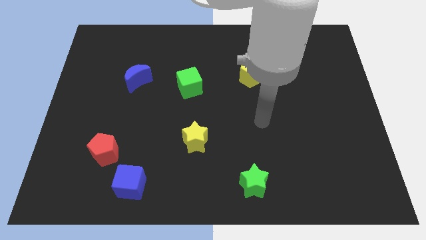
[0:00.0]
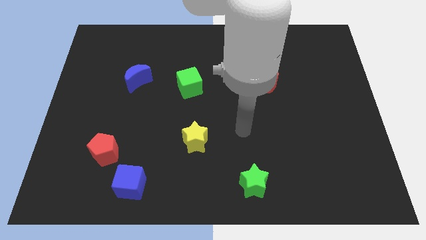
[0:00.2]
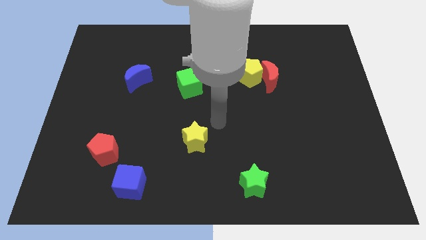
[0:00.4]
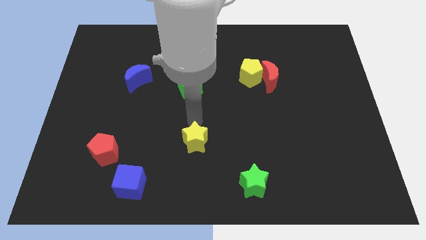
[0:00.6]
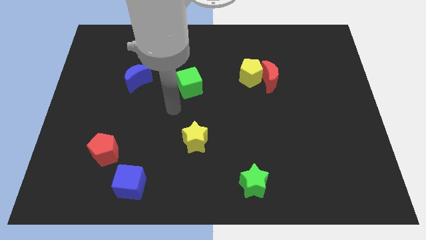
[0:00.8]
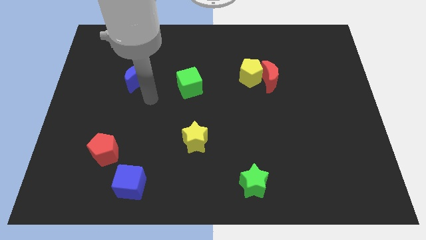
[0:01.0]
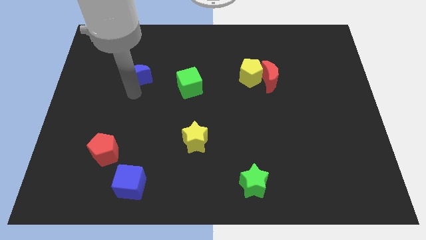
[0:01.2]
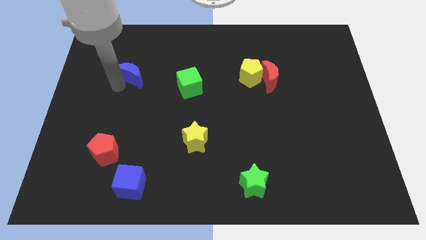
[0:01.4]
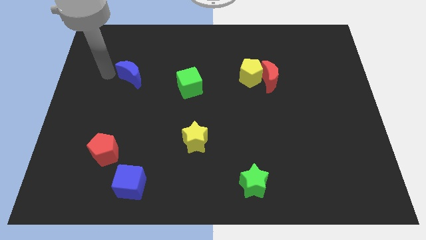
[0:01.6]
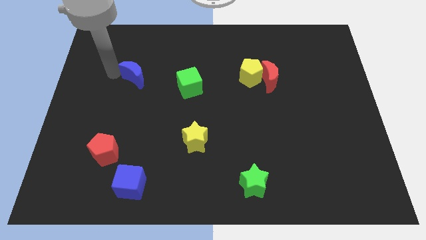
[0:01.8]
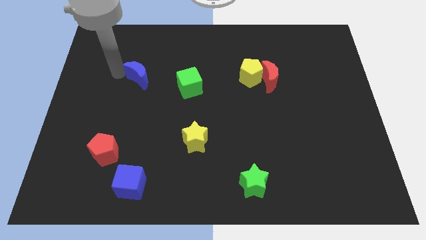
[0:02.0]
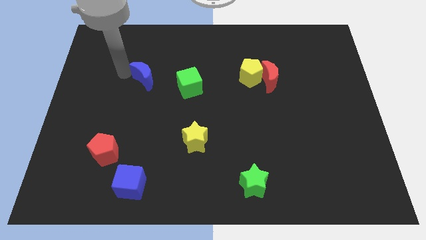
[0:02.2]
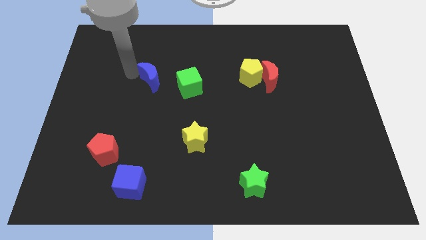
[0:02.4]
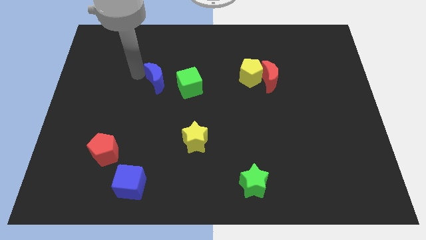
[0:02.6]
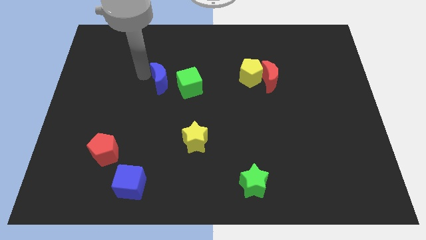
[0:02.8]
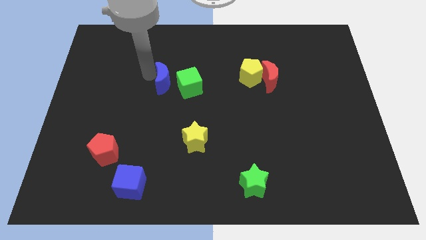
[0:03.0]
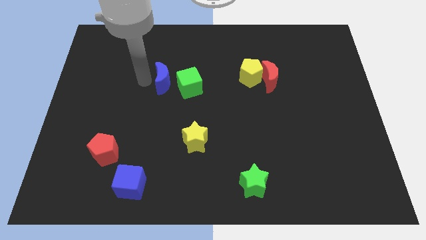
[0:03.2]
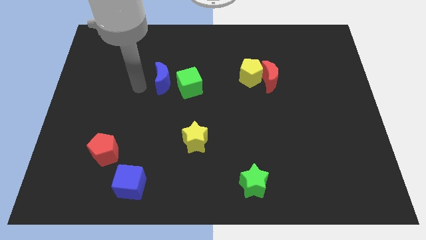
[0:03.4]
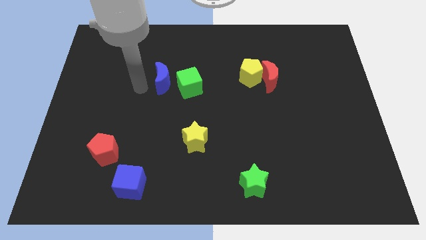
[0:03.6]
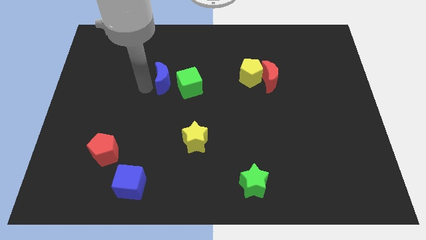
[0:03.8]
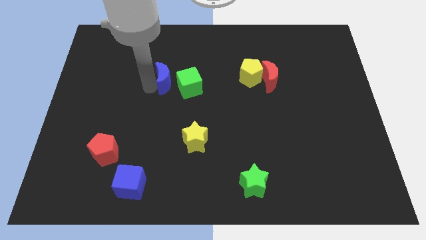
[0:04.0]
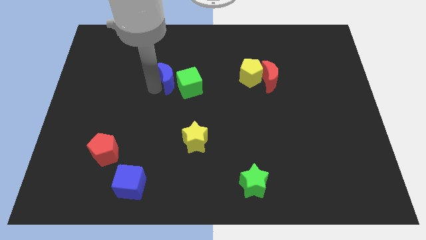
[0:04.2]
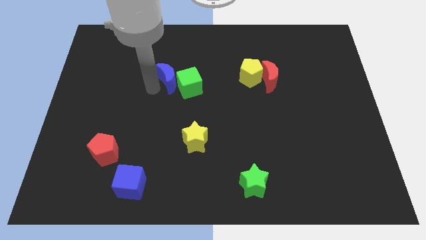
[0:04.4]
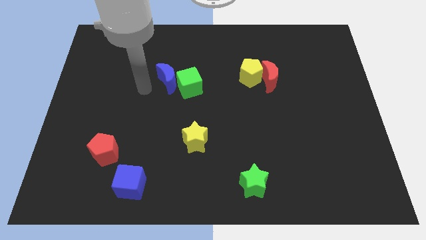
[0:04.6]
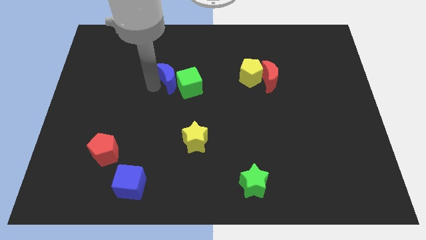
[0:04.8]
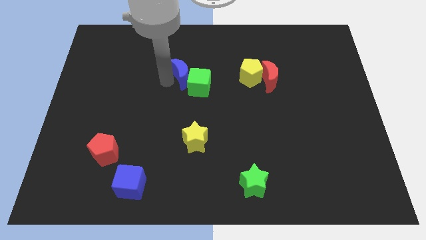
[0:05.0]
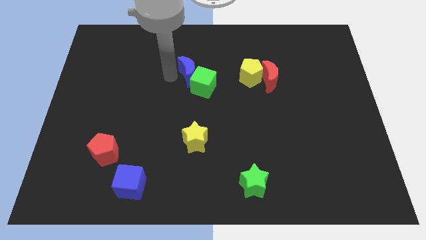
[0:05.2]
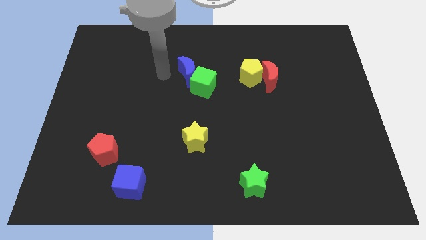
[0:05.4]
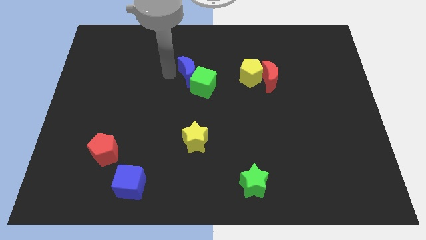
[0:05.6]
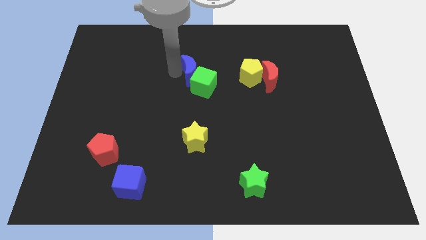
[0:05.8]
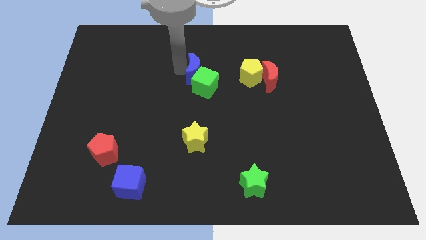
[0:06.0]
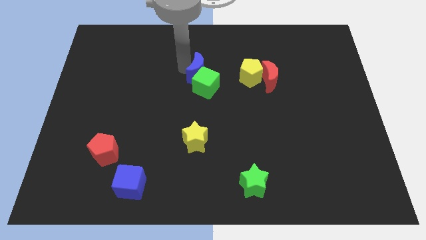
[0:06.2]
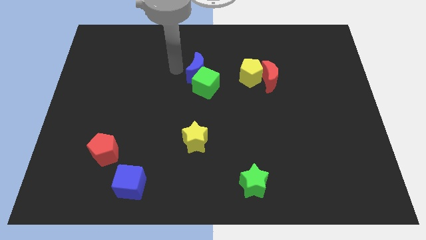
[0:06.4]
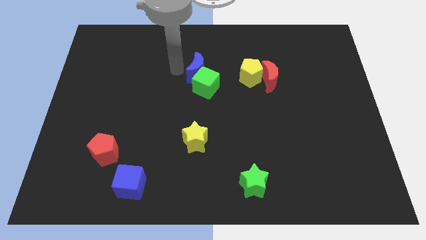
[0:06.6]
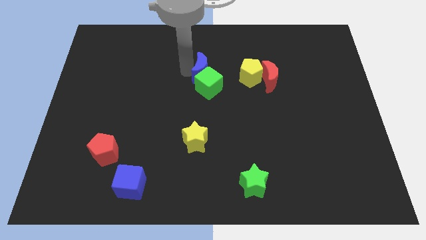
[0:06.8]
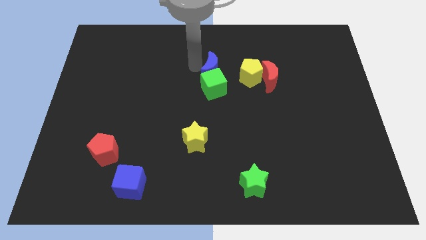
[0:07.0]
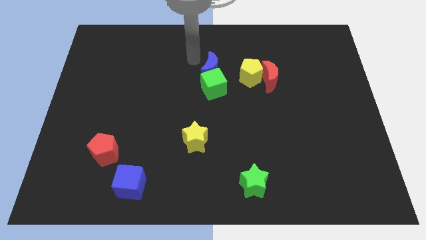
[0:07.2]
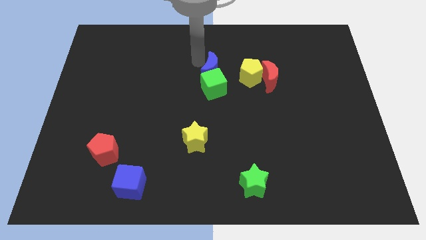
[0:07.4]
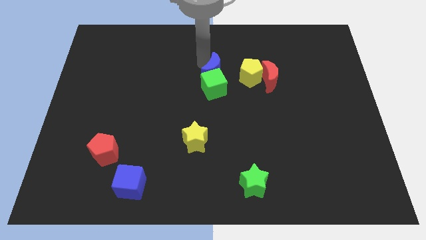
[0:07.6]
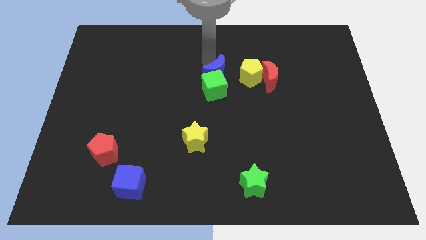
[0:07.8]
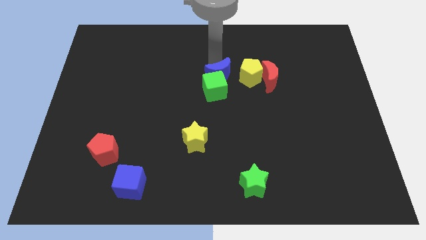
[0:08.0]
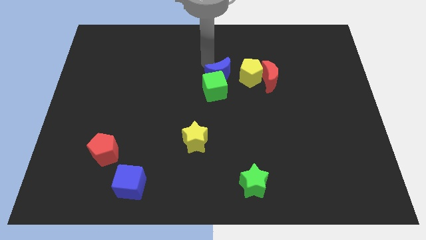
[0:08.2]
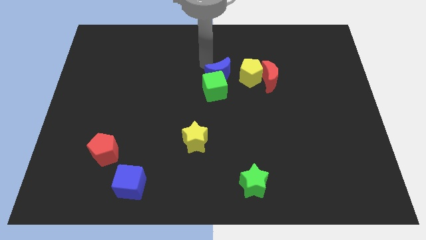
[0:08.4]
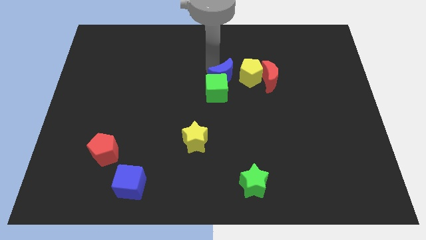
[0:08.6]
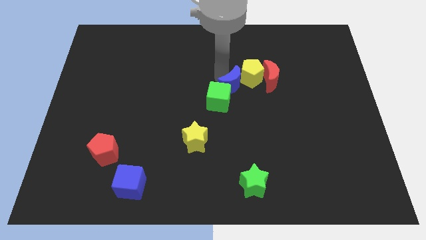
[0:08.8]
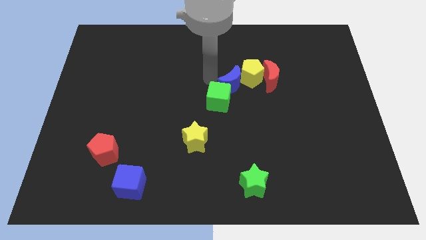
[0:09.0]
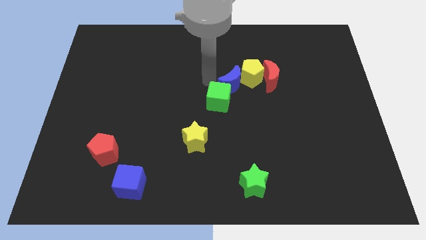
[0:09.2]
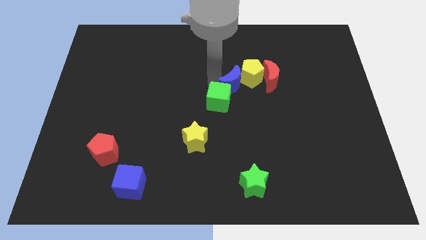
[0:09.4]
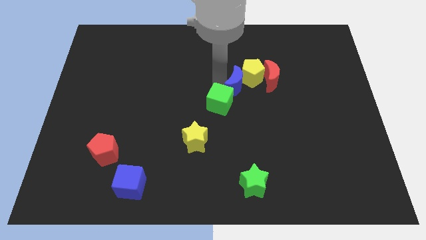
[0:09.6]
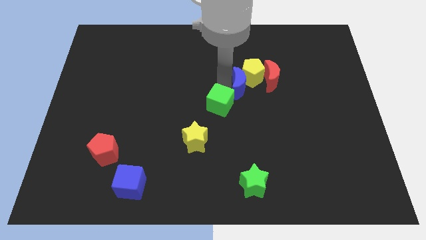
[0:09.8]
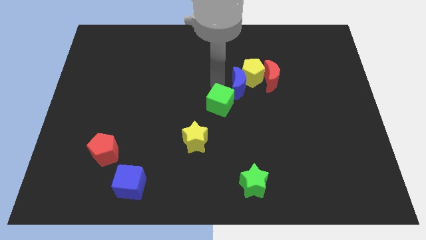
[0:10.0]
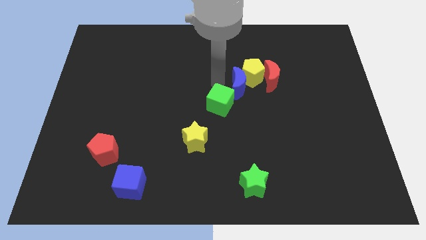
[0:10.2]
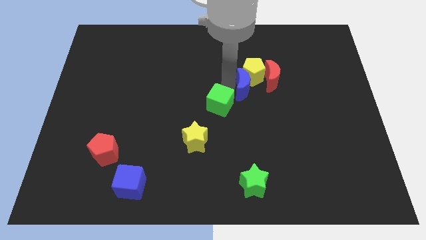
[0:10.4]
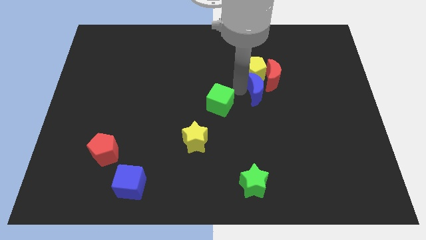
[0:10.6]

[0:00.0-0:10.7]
move the blue moon next to the red moon

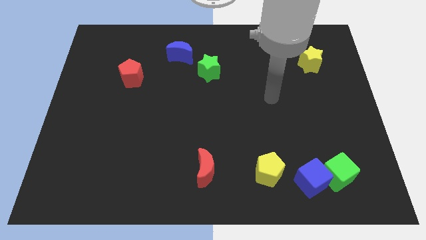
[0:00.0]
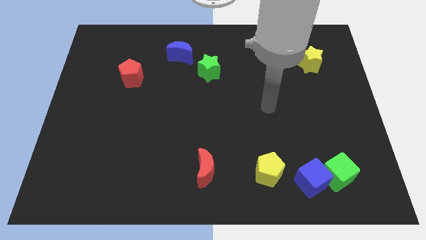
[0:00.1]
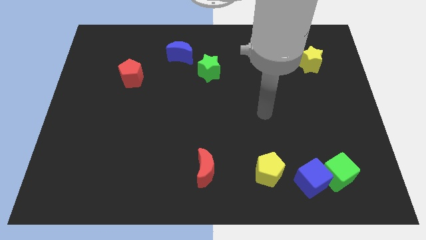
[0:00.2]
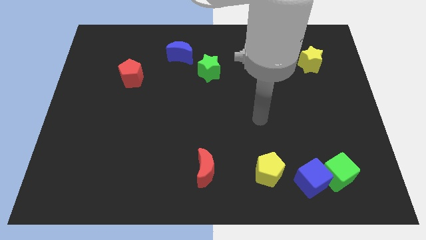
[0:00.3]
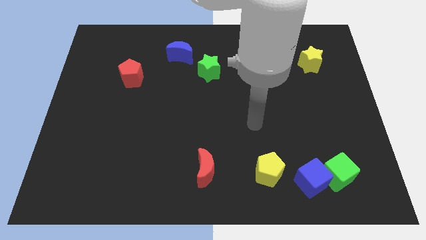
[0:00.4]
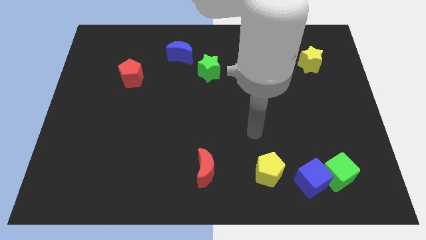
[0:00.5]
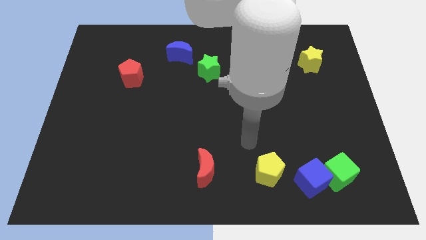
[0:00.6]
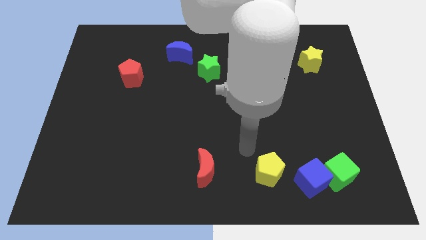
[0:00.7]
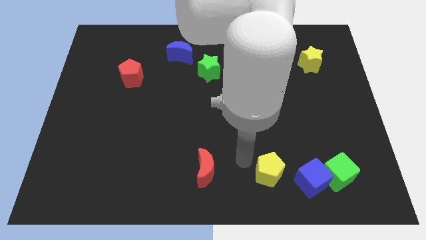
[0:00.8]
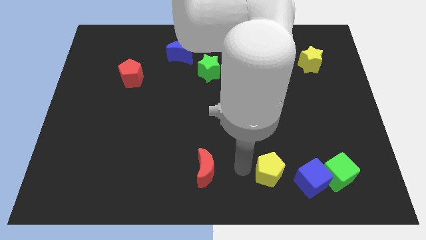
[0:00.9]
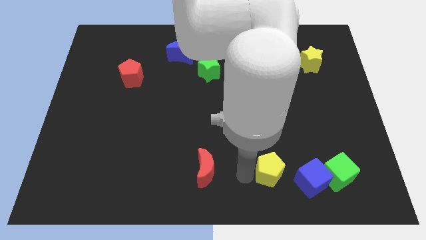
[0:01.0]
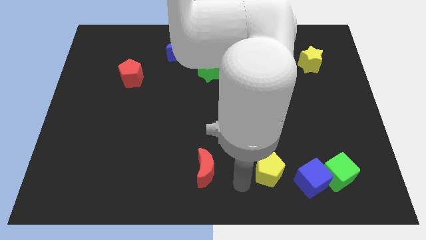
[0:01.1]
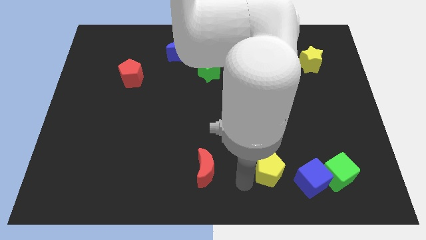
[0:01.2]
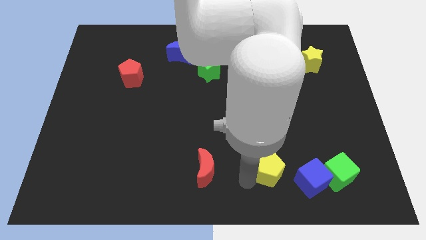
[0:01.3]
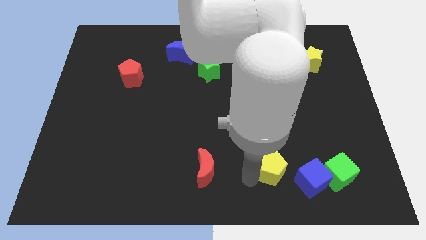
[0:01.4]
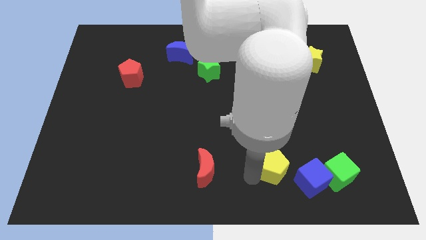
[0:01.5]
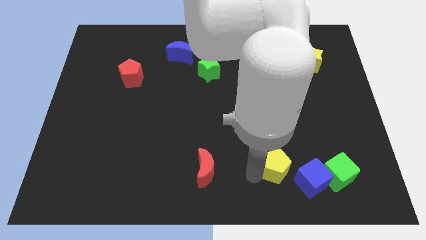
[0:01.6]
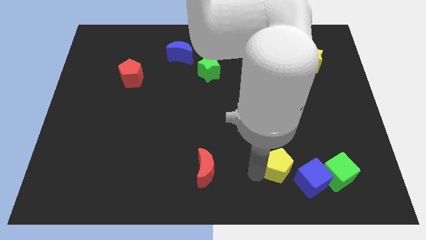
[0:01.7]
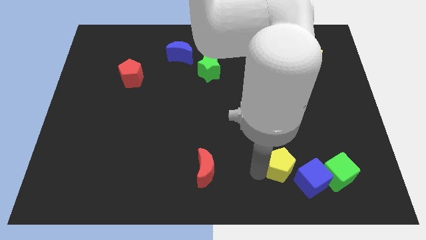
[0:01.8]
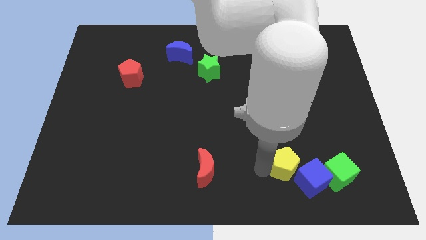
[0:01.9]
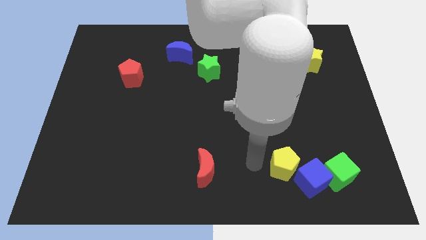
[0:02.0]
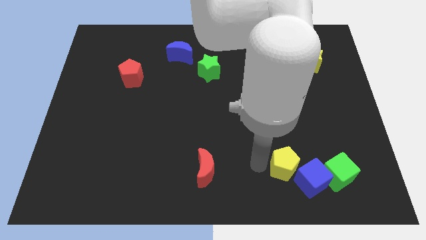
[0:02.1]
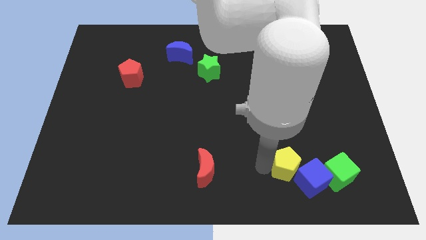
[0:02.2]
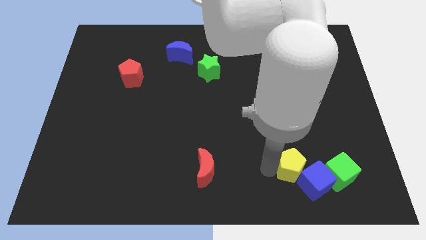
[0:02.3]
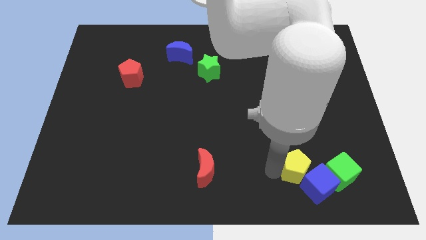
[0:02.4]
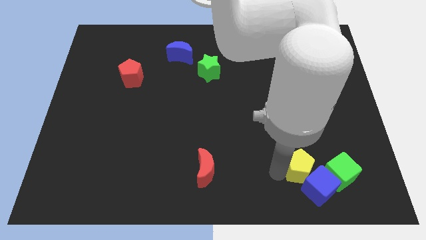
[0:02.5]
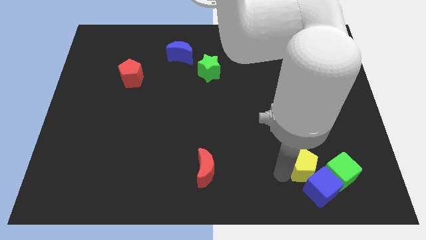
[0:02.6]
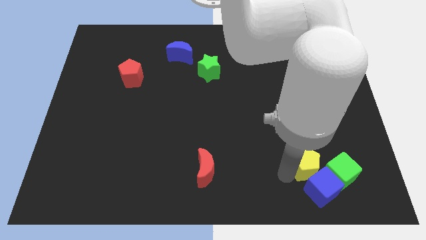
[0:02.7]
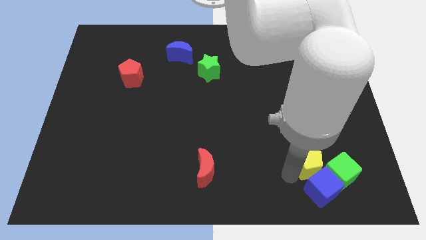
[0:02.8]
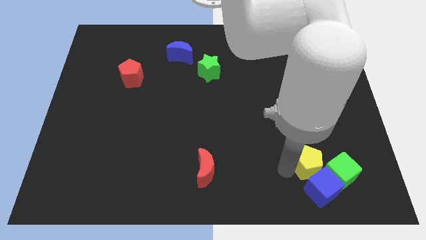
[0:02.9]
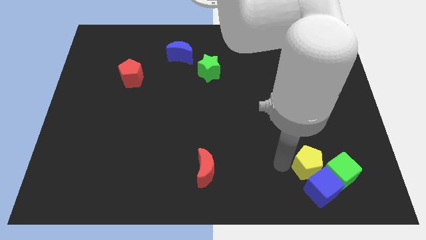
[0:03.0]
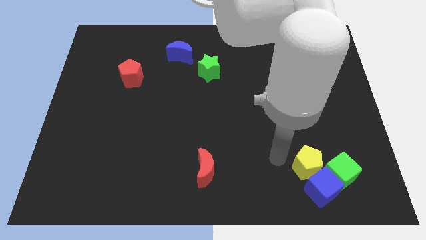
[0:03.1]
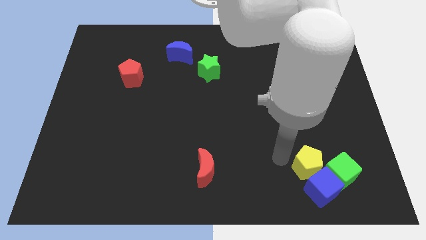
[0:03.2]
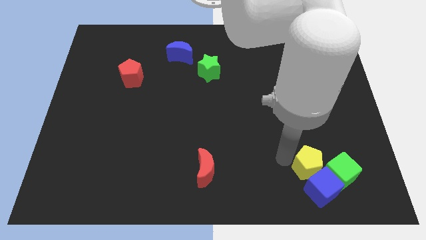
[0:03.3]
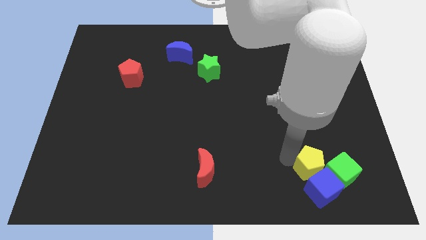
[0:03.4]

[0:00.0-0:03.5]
move the yellow pentagon next to the green cube
